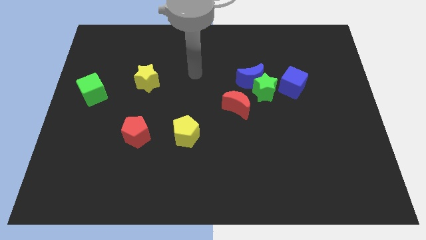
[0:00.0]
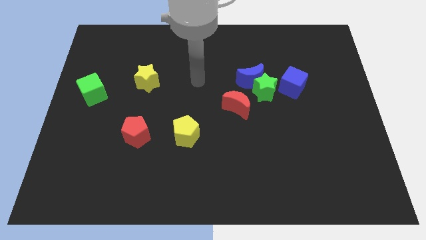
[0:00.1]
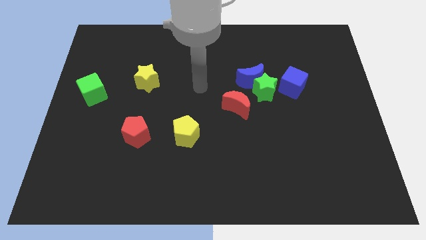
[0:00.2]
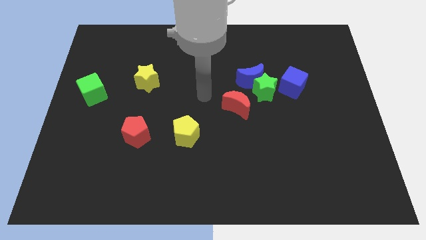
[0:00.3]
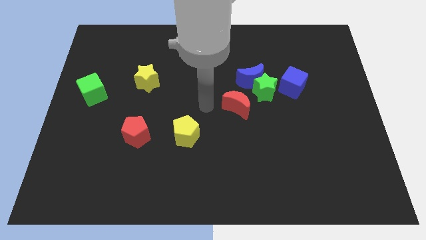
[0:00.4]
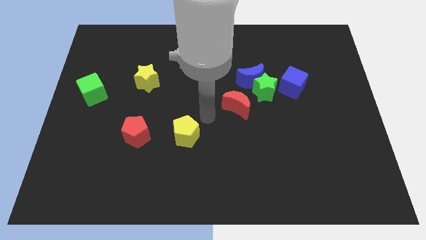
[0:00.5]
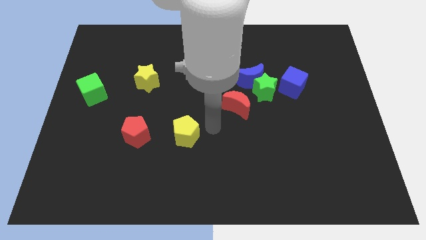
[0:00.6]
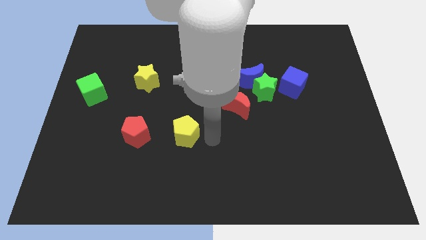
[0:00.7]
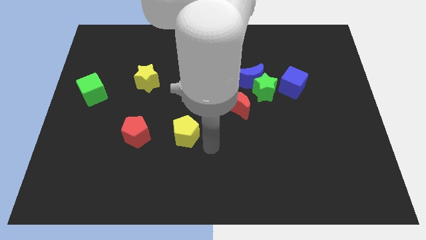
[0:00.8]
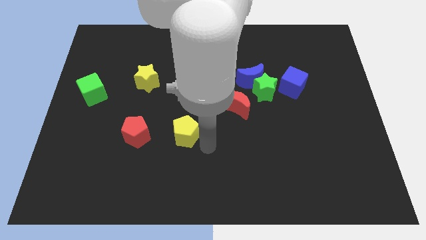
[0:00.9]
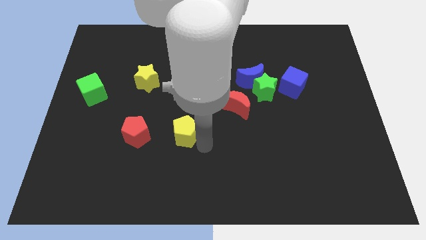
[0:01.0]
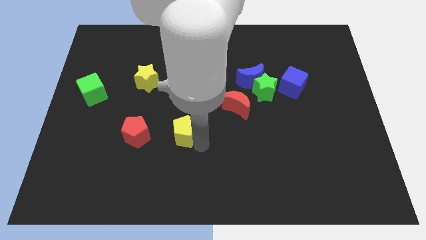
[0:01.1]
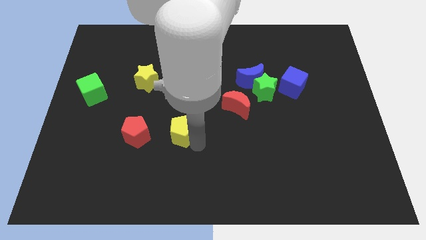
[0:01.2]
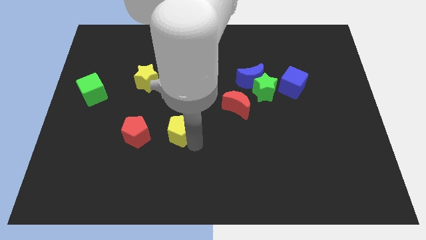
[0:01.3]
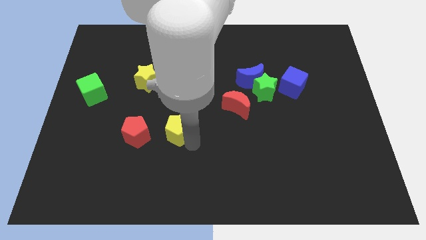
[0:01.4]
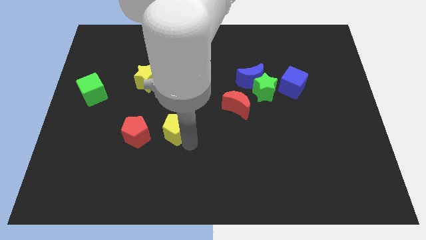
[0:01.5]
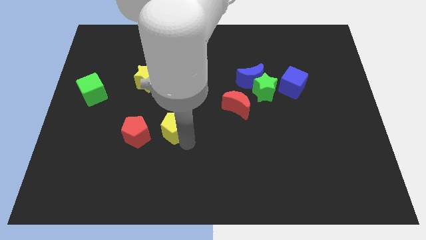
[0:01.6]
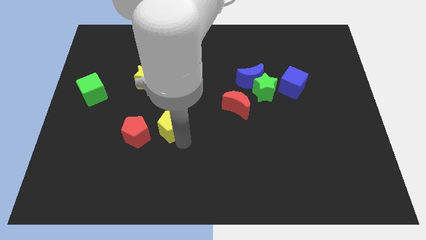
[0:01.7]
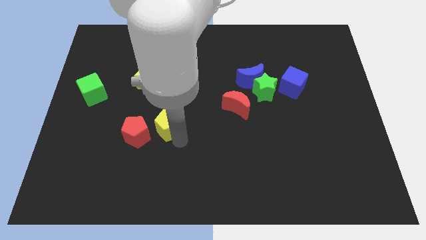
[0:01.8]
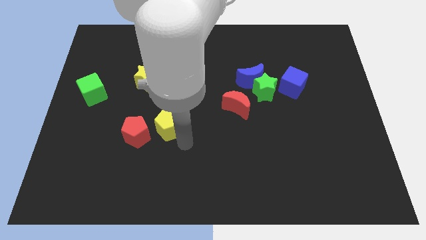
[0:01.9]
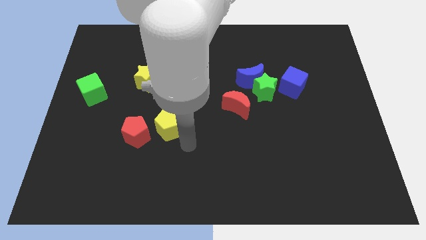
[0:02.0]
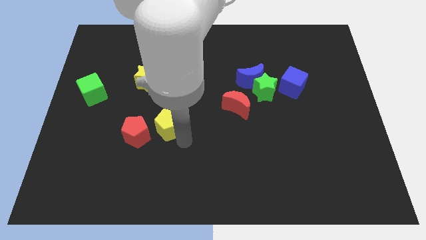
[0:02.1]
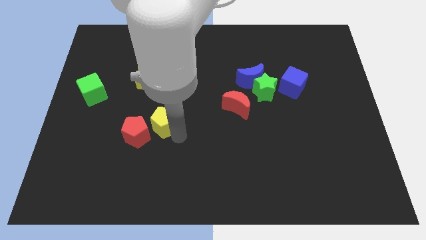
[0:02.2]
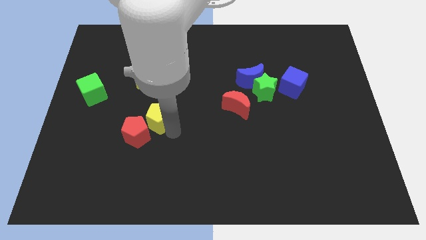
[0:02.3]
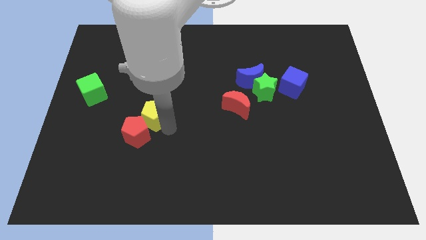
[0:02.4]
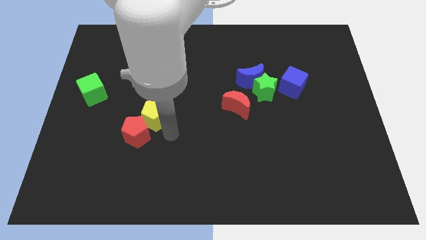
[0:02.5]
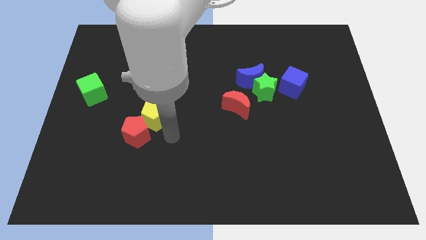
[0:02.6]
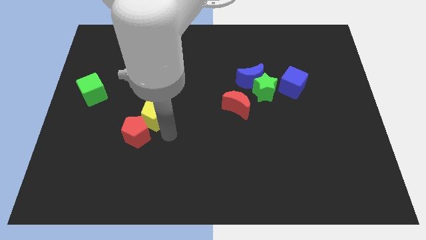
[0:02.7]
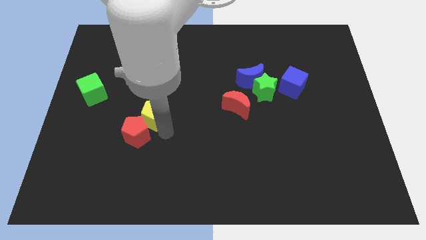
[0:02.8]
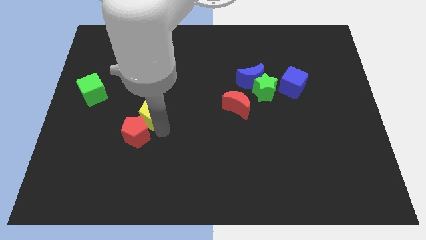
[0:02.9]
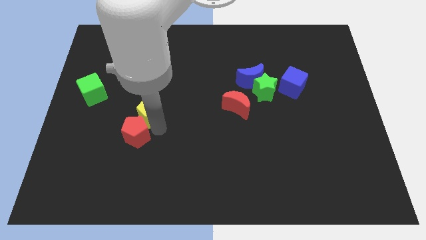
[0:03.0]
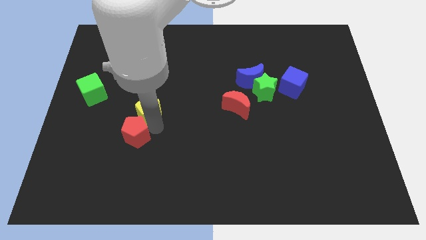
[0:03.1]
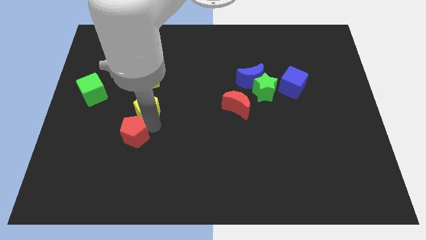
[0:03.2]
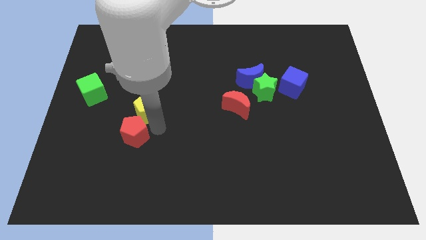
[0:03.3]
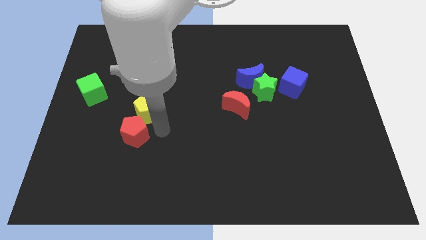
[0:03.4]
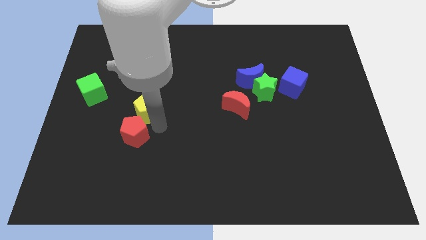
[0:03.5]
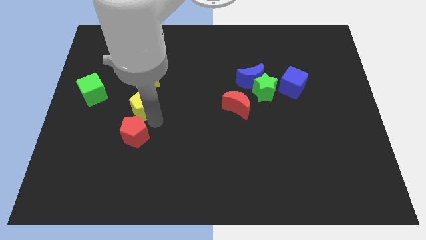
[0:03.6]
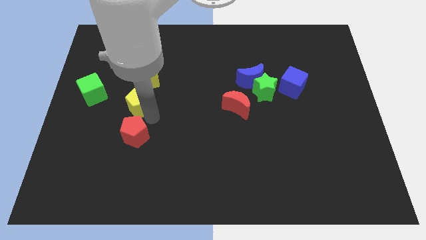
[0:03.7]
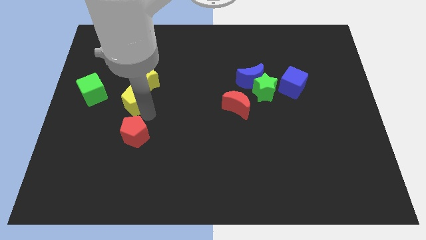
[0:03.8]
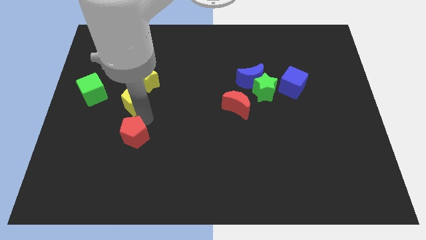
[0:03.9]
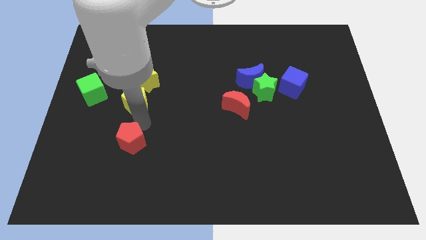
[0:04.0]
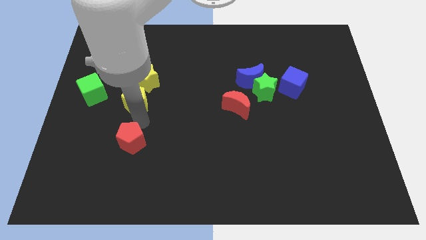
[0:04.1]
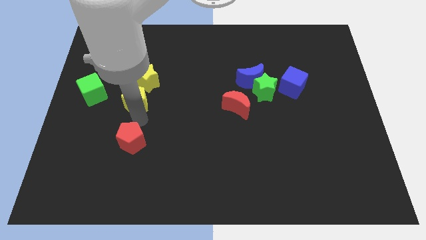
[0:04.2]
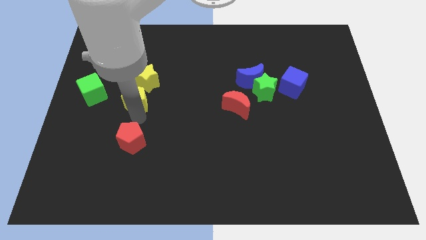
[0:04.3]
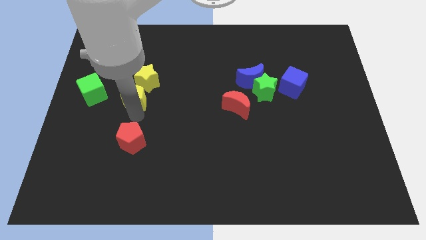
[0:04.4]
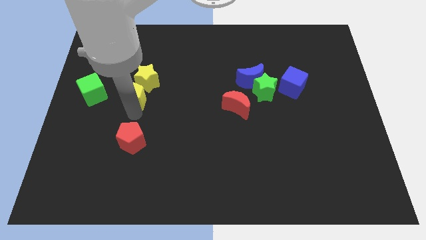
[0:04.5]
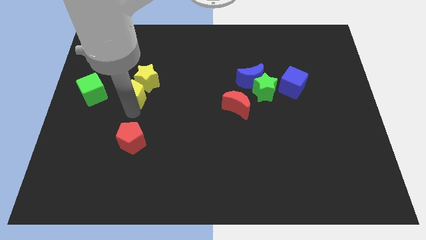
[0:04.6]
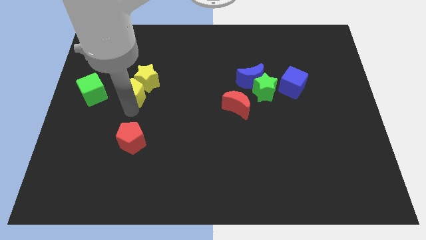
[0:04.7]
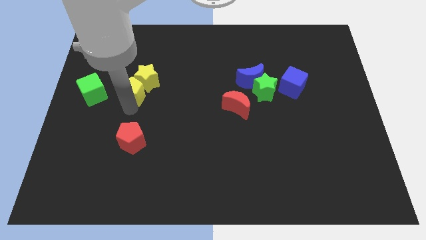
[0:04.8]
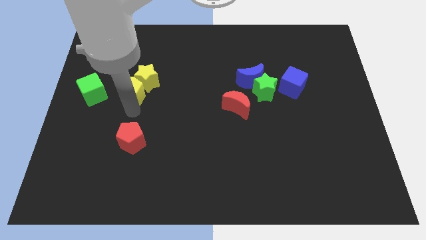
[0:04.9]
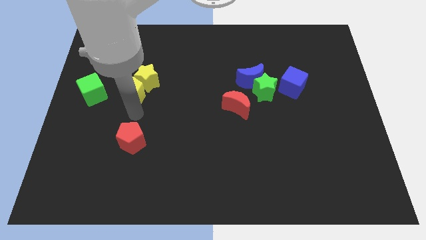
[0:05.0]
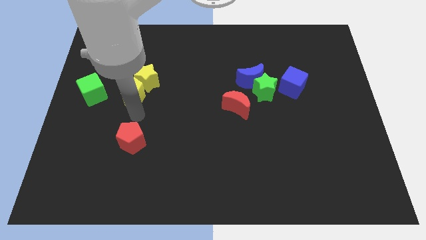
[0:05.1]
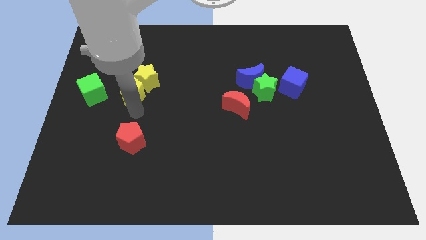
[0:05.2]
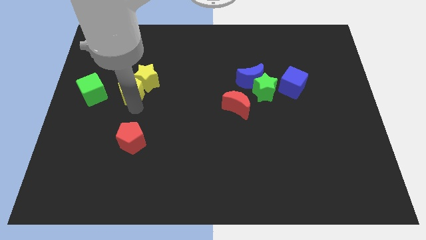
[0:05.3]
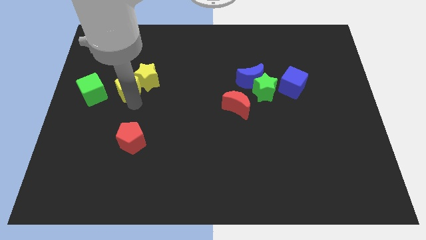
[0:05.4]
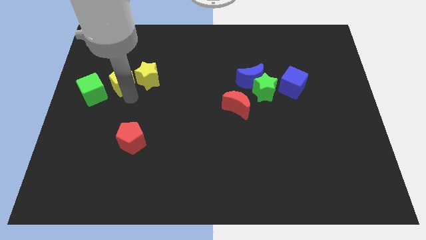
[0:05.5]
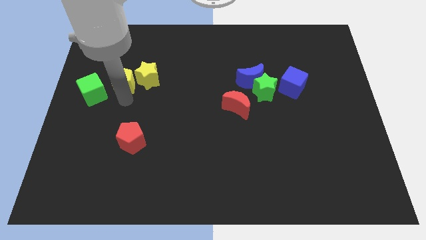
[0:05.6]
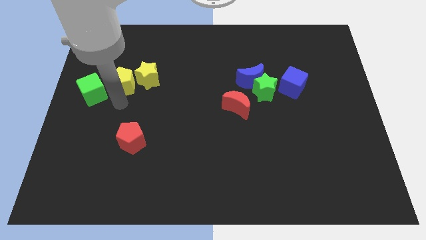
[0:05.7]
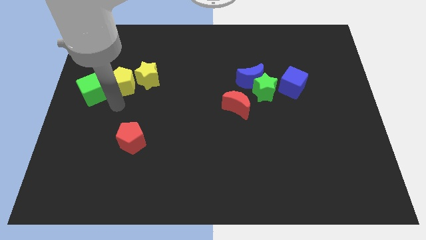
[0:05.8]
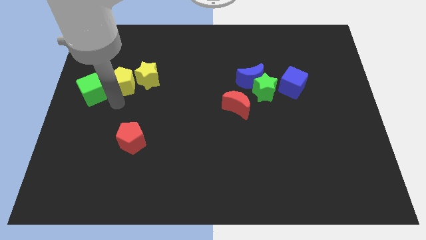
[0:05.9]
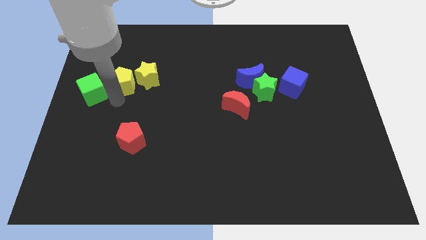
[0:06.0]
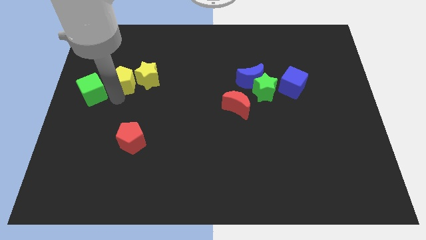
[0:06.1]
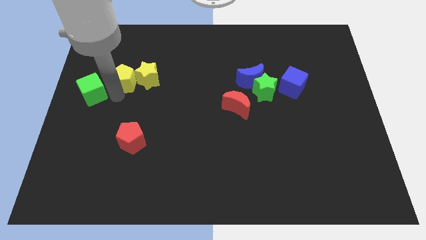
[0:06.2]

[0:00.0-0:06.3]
put the yellow pentagon to the top left side of the yellow star

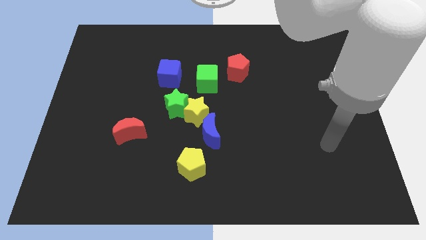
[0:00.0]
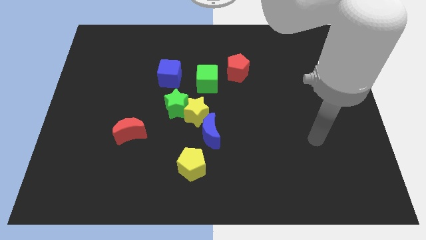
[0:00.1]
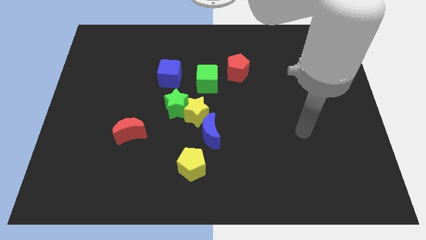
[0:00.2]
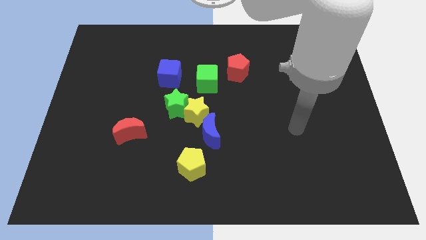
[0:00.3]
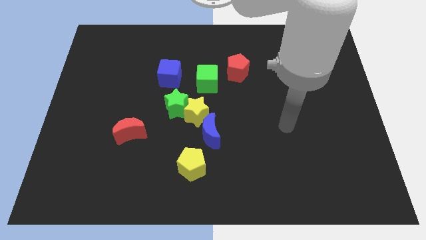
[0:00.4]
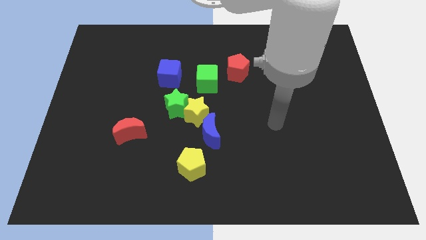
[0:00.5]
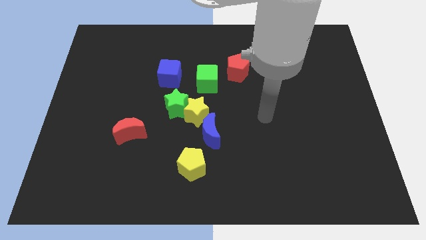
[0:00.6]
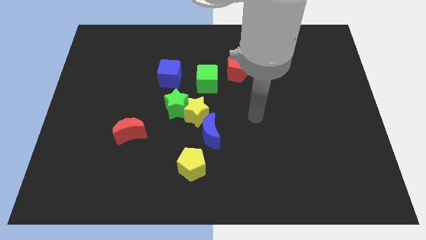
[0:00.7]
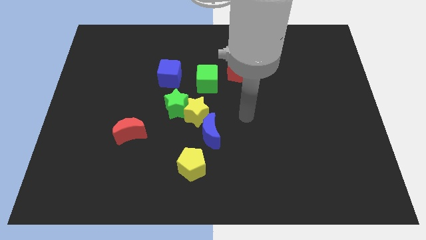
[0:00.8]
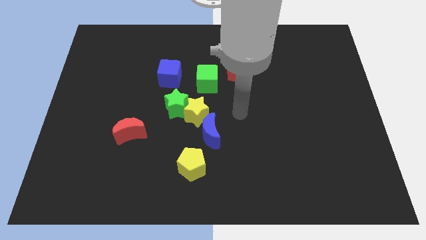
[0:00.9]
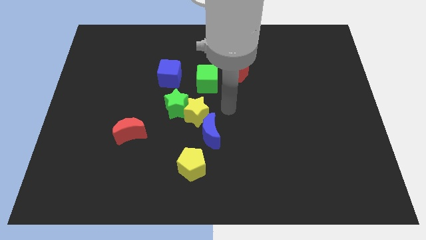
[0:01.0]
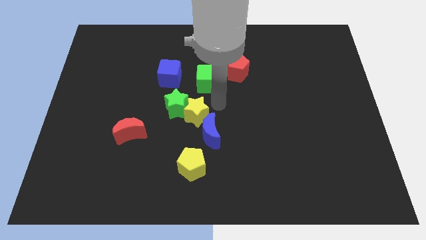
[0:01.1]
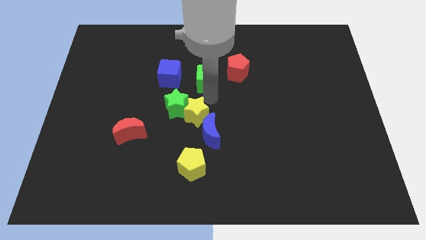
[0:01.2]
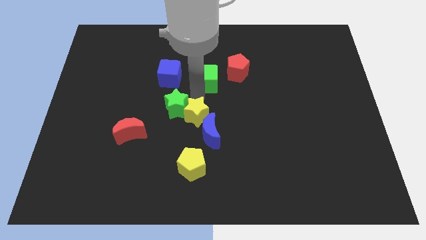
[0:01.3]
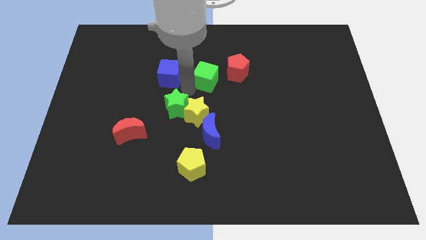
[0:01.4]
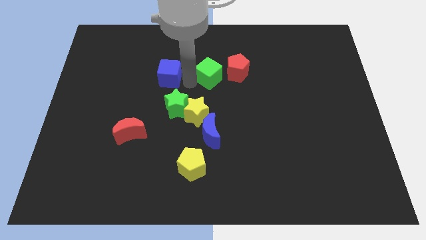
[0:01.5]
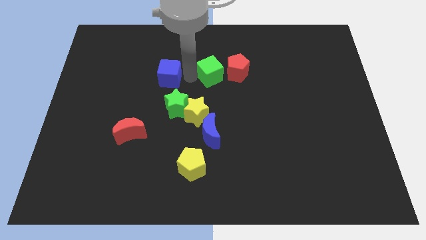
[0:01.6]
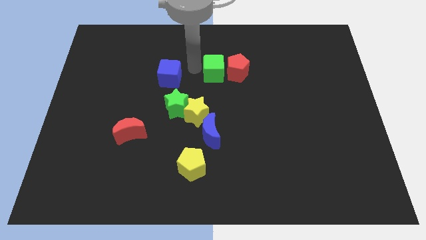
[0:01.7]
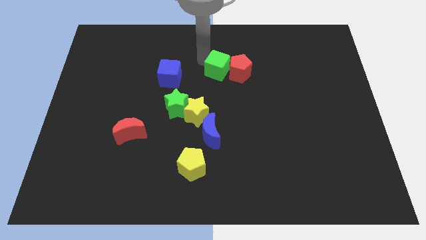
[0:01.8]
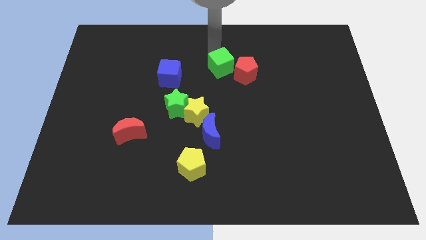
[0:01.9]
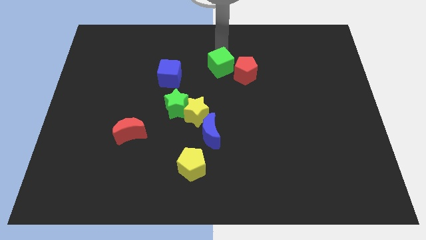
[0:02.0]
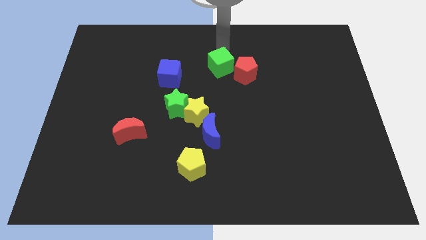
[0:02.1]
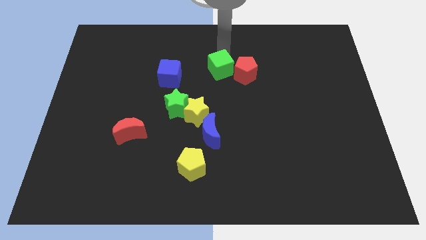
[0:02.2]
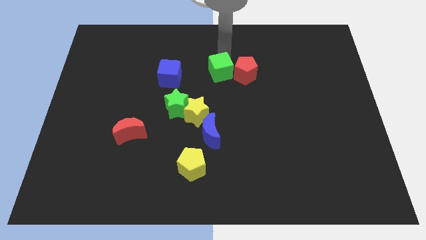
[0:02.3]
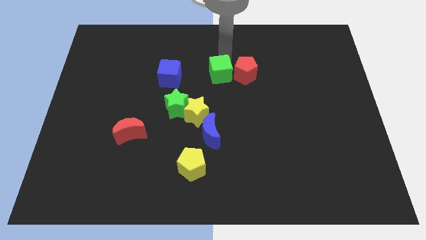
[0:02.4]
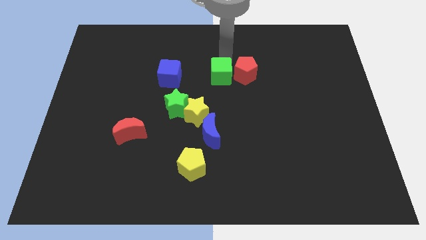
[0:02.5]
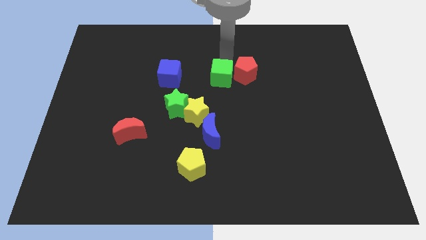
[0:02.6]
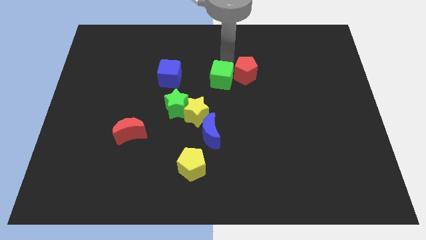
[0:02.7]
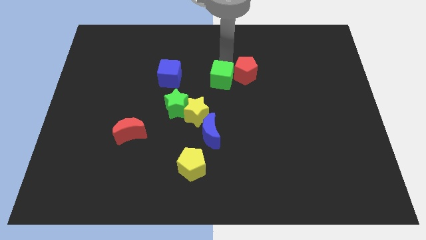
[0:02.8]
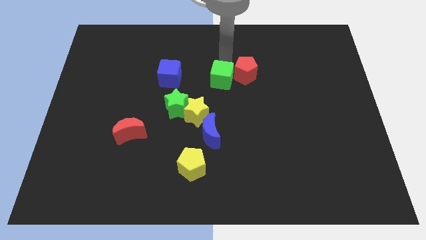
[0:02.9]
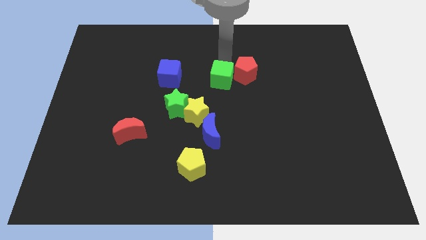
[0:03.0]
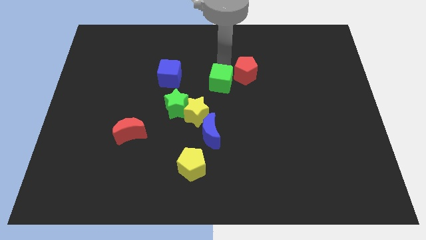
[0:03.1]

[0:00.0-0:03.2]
move the green cube to the top right of the yellow star
